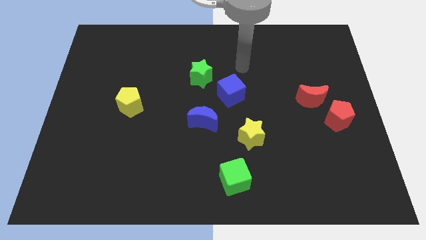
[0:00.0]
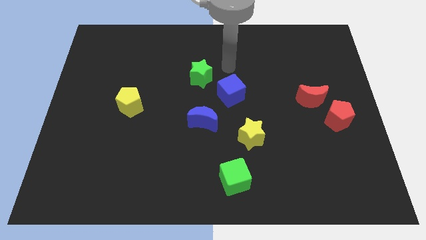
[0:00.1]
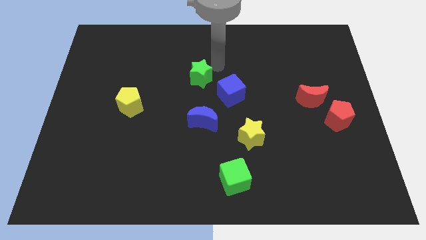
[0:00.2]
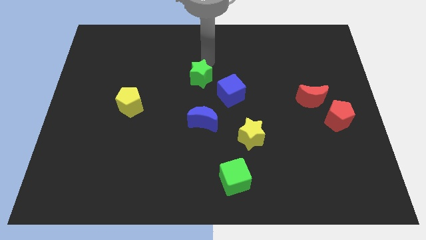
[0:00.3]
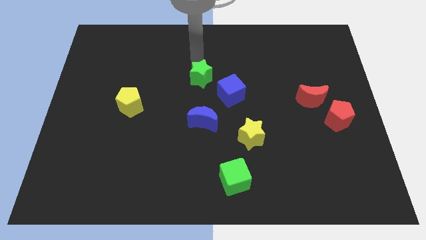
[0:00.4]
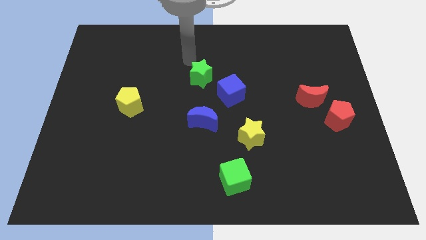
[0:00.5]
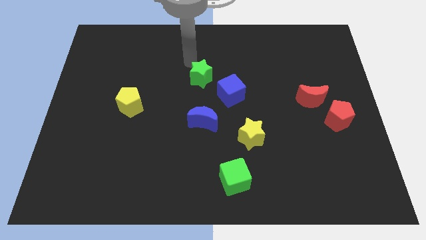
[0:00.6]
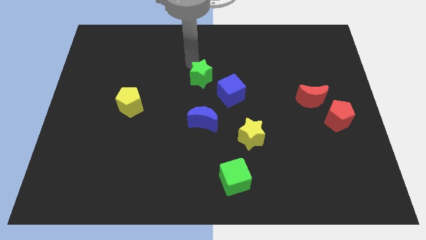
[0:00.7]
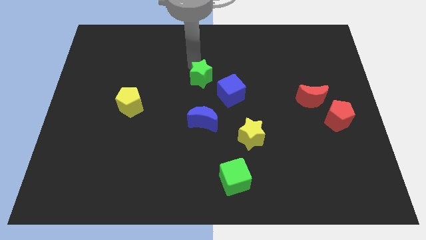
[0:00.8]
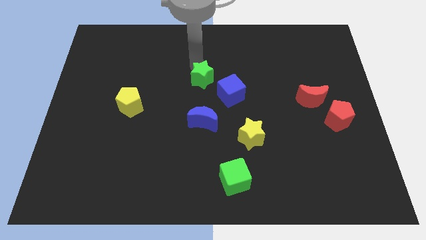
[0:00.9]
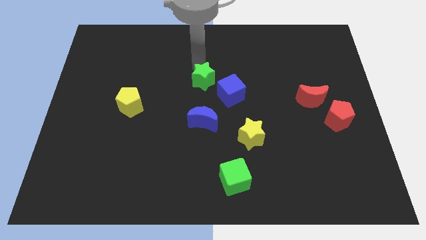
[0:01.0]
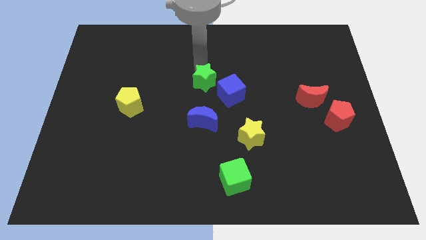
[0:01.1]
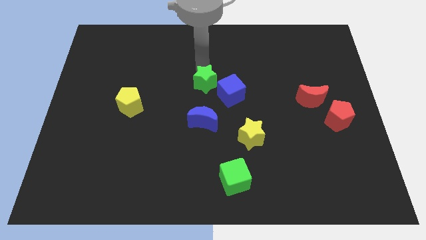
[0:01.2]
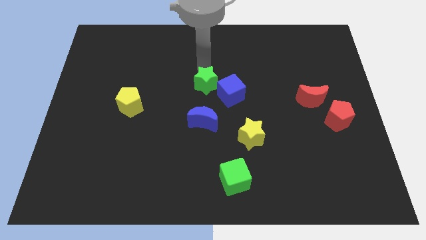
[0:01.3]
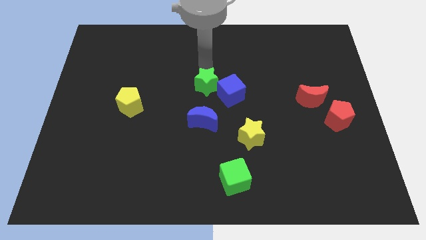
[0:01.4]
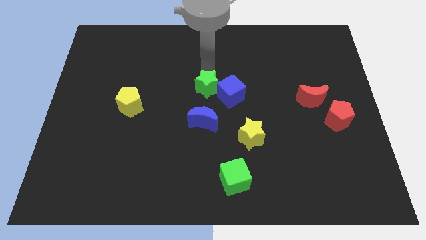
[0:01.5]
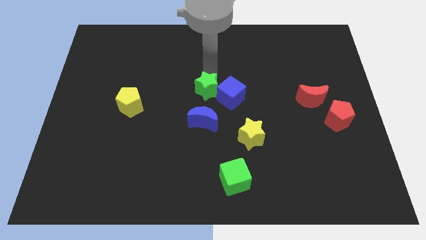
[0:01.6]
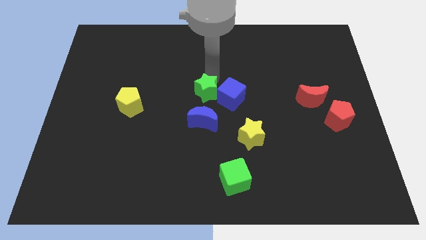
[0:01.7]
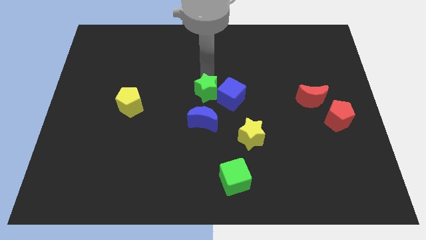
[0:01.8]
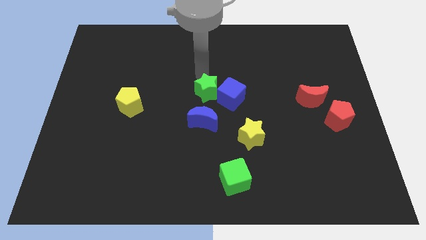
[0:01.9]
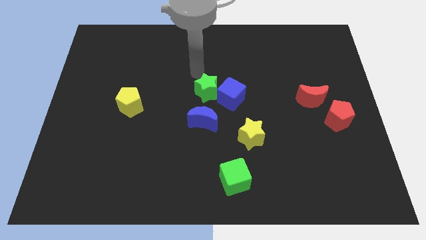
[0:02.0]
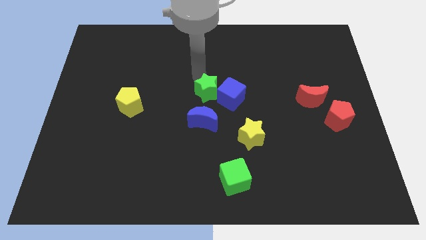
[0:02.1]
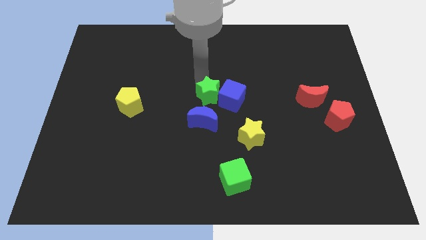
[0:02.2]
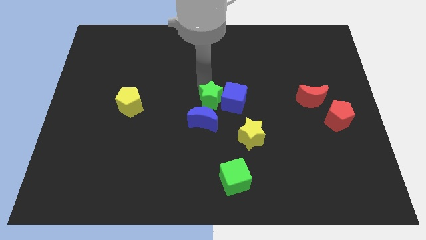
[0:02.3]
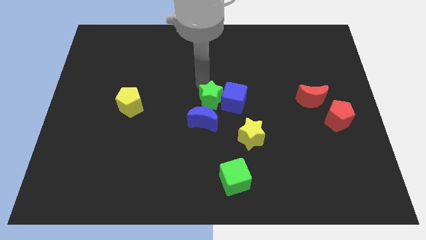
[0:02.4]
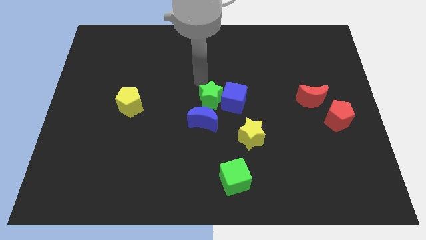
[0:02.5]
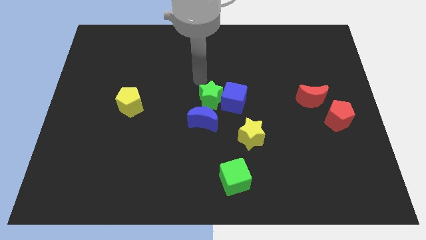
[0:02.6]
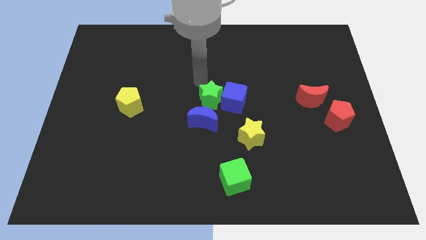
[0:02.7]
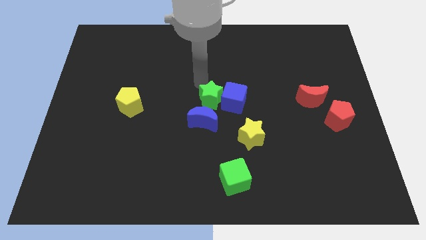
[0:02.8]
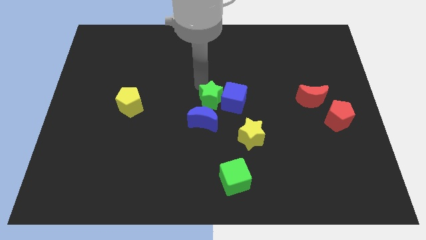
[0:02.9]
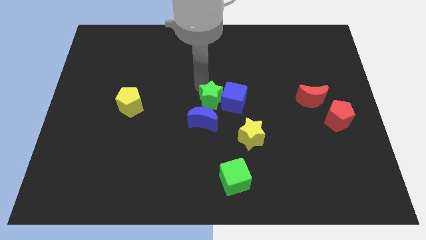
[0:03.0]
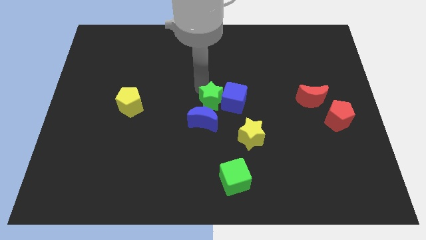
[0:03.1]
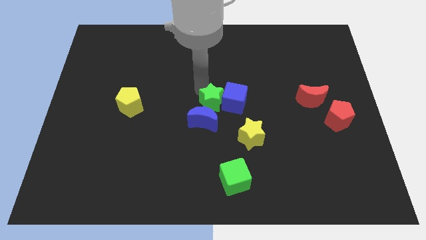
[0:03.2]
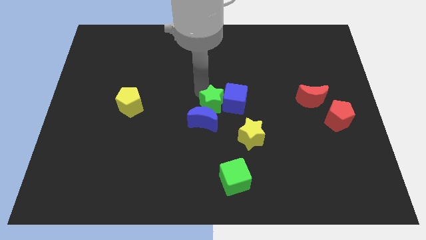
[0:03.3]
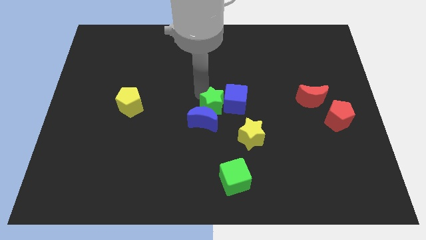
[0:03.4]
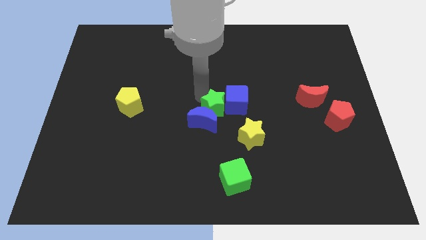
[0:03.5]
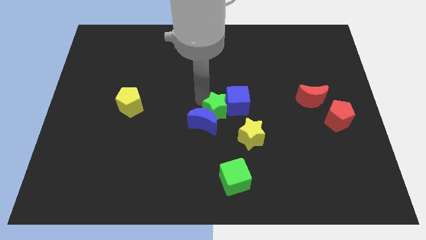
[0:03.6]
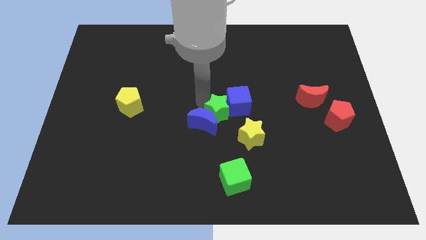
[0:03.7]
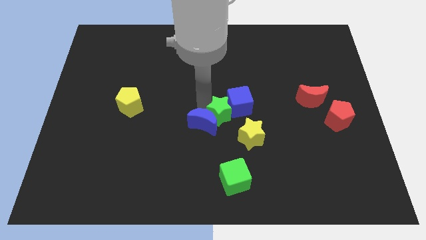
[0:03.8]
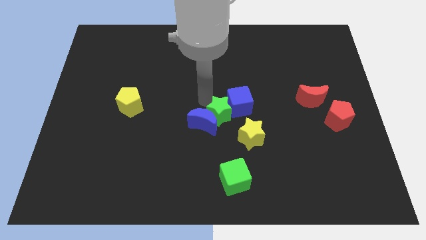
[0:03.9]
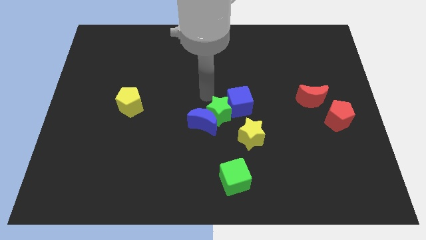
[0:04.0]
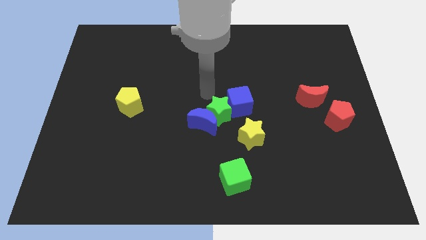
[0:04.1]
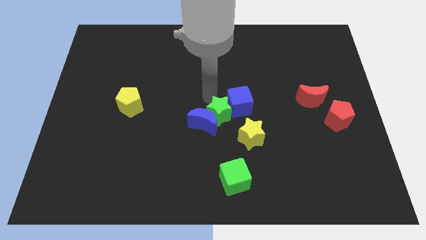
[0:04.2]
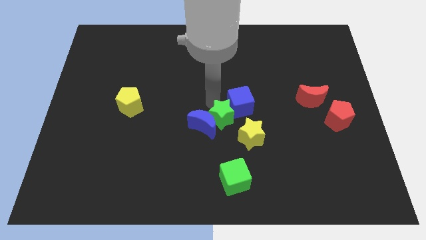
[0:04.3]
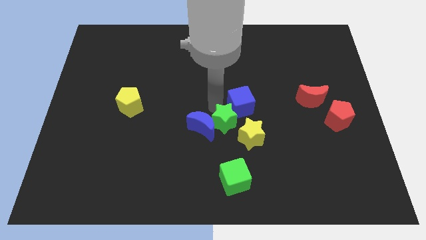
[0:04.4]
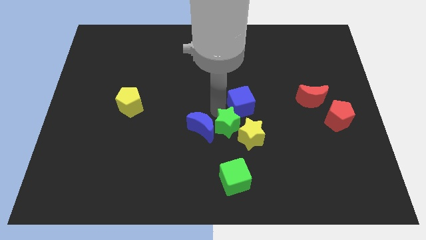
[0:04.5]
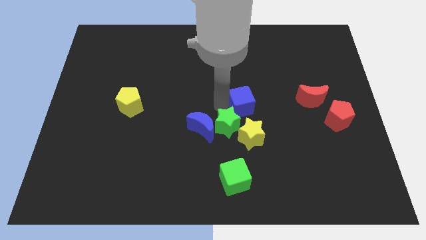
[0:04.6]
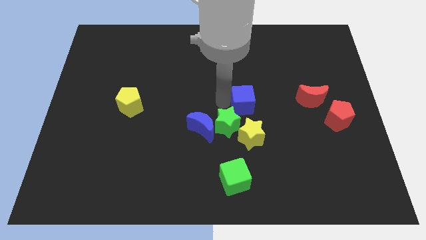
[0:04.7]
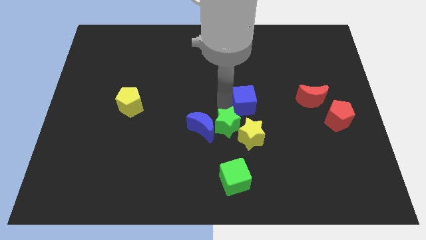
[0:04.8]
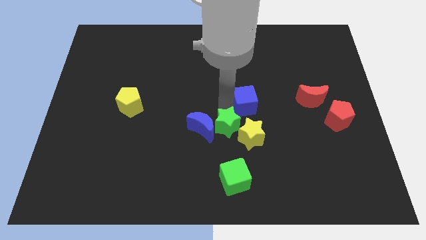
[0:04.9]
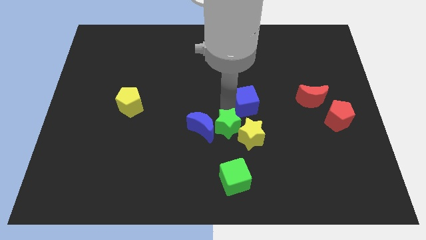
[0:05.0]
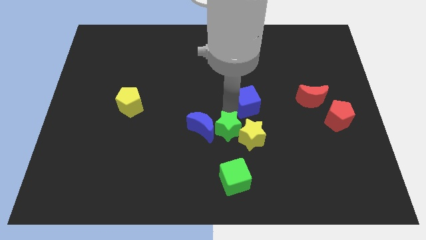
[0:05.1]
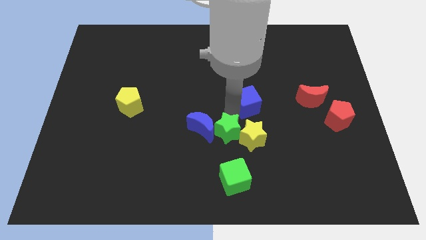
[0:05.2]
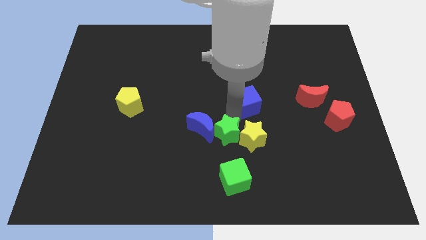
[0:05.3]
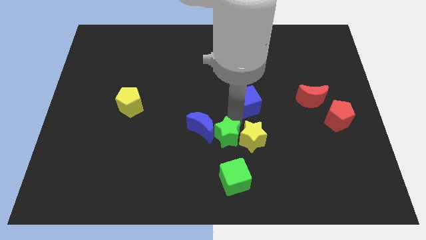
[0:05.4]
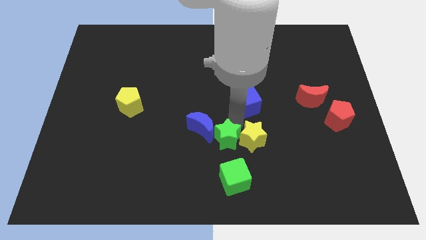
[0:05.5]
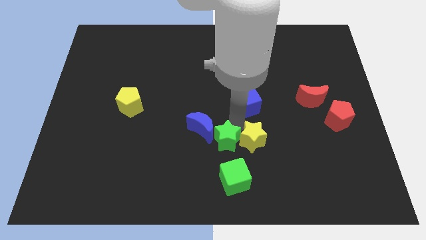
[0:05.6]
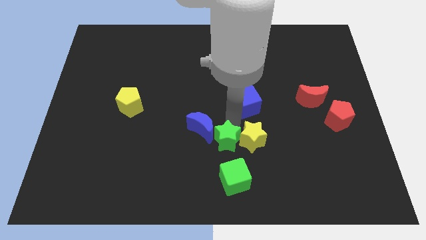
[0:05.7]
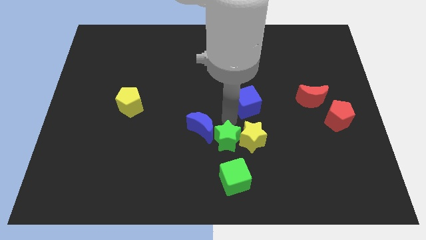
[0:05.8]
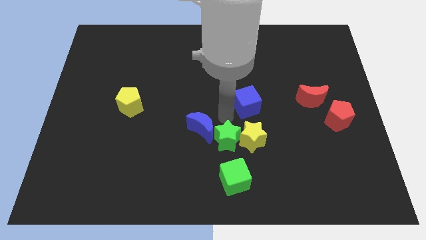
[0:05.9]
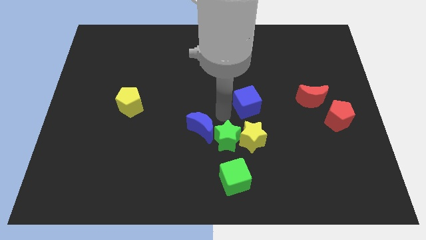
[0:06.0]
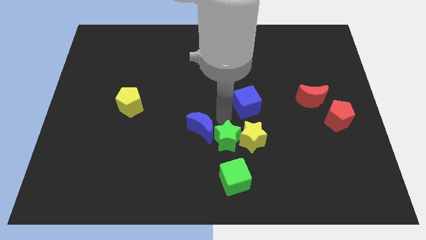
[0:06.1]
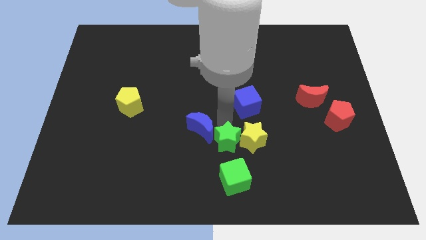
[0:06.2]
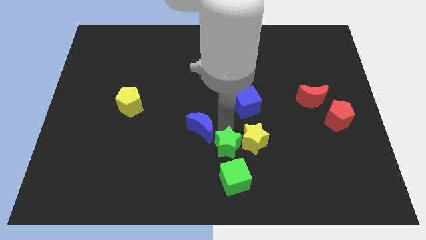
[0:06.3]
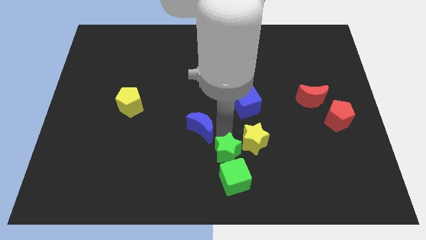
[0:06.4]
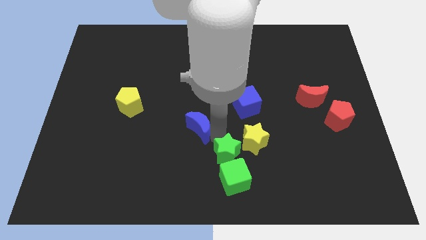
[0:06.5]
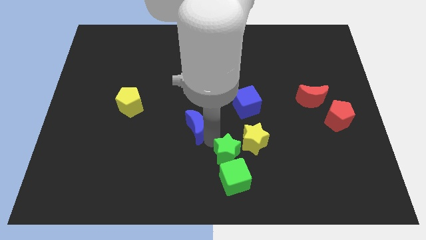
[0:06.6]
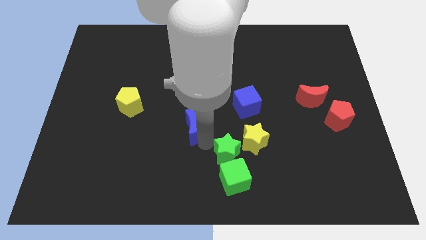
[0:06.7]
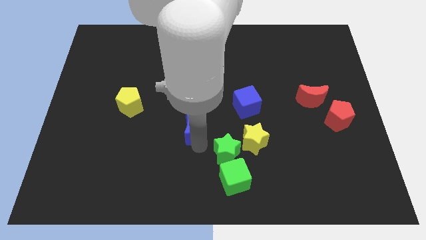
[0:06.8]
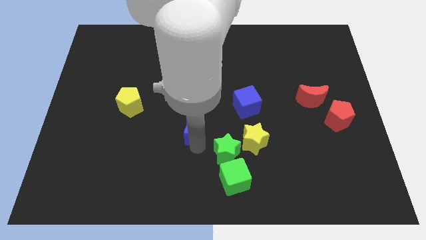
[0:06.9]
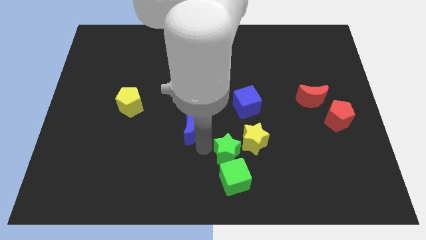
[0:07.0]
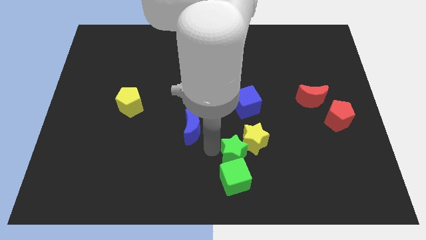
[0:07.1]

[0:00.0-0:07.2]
push the green star to the top right of the green cube
